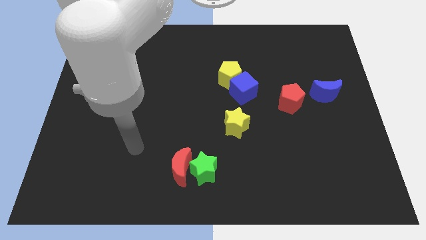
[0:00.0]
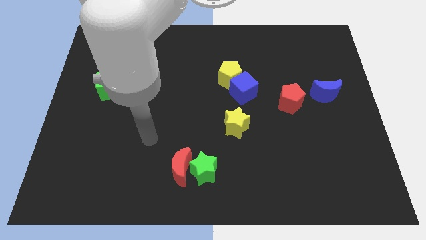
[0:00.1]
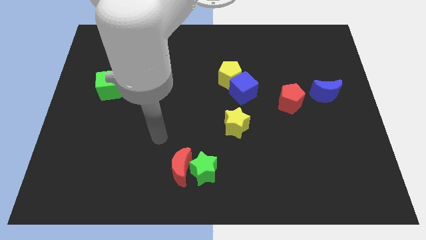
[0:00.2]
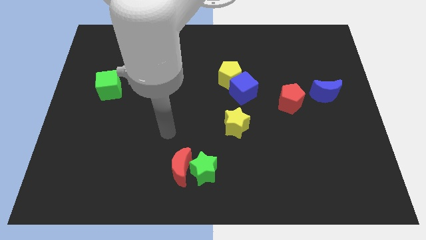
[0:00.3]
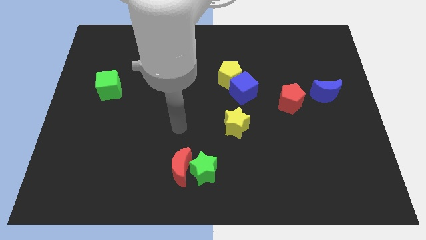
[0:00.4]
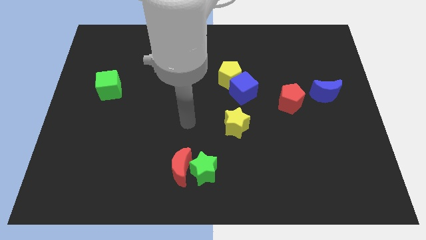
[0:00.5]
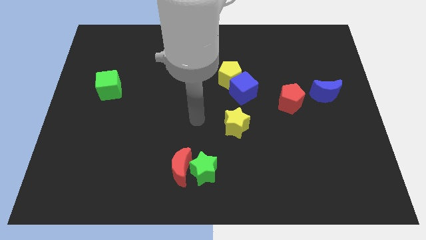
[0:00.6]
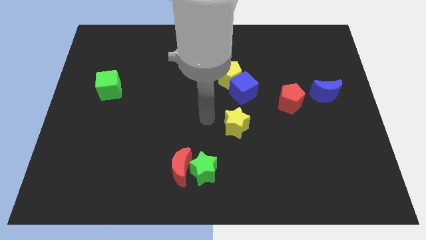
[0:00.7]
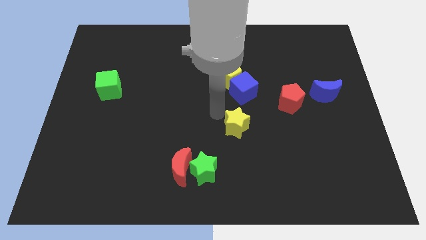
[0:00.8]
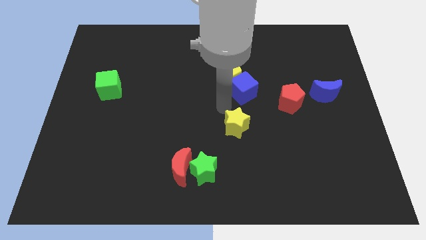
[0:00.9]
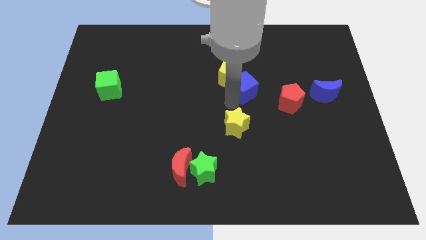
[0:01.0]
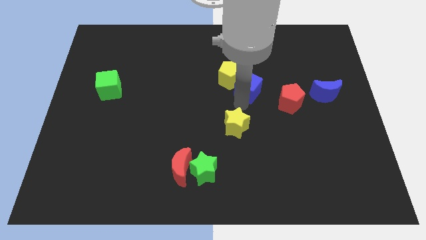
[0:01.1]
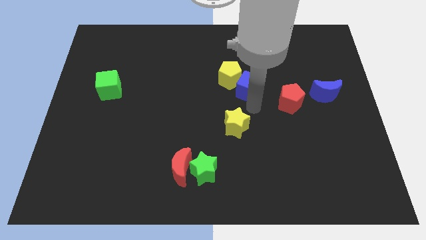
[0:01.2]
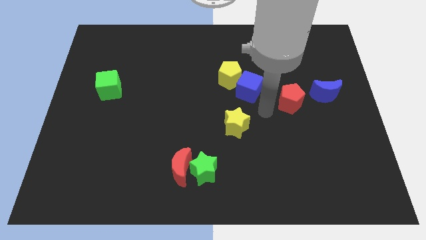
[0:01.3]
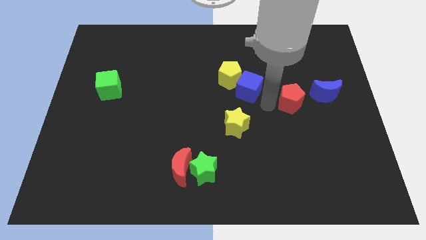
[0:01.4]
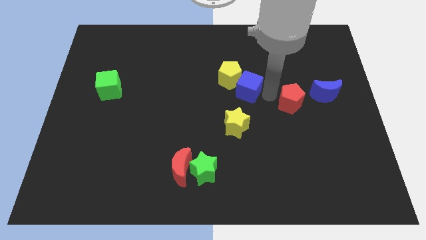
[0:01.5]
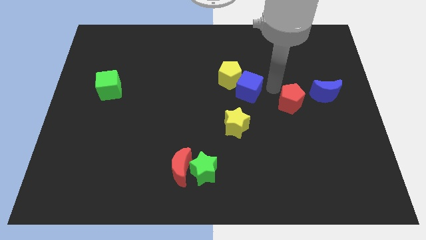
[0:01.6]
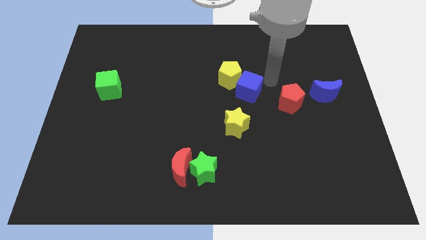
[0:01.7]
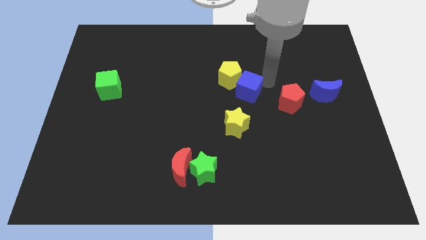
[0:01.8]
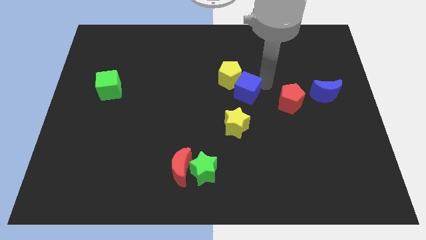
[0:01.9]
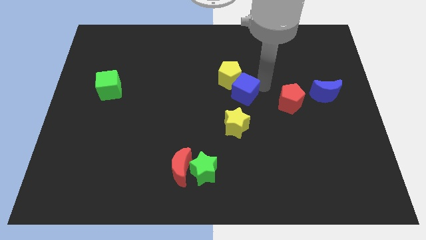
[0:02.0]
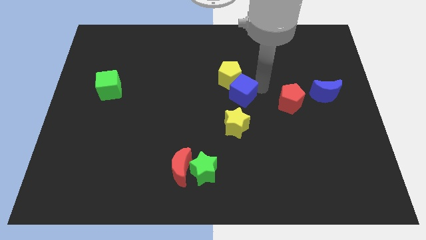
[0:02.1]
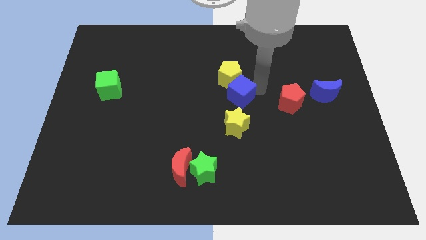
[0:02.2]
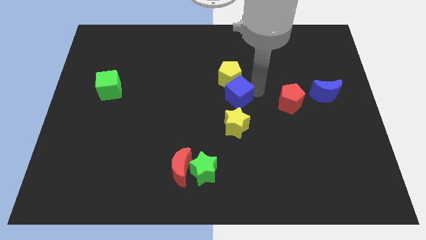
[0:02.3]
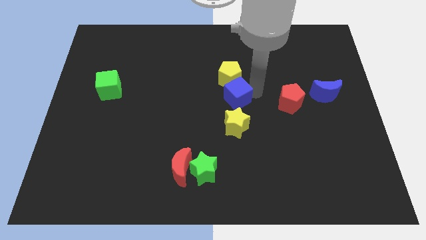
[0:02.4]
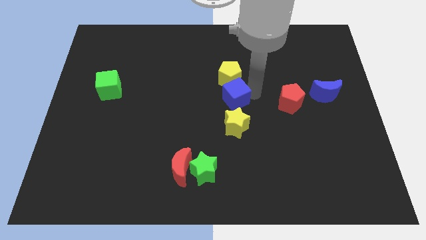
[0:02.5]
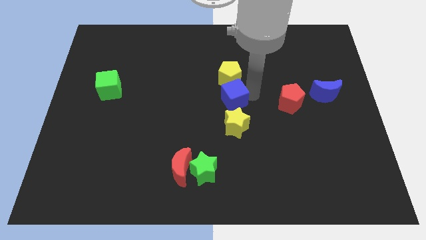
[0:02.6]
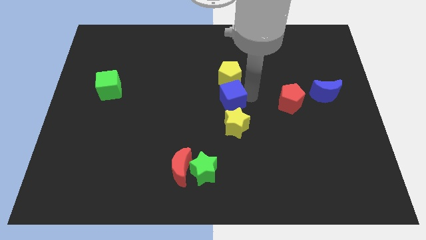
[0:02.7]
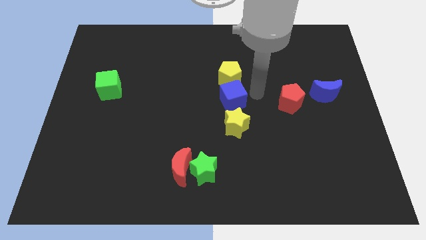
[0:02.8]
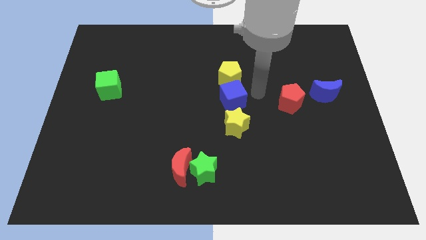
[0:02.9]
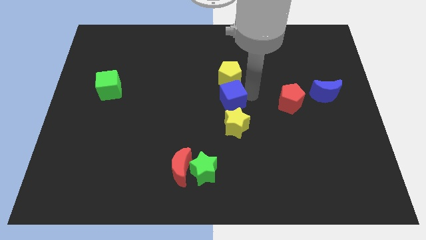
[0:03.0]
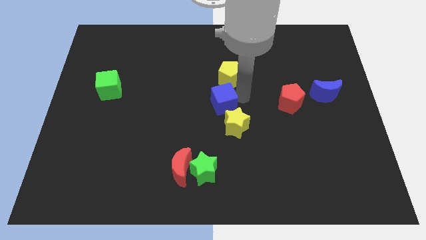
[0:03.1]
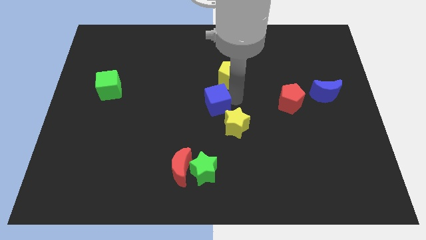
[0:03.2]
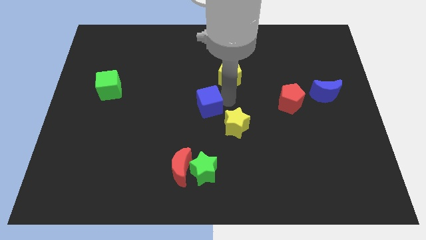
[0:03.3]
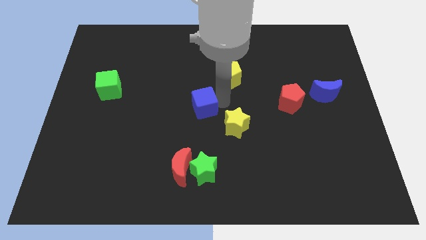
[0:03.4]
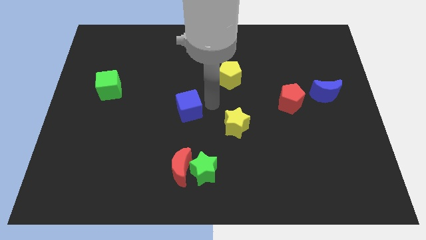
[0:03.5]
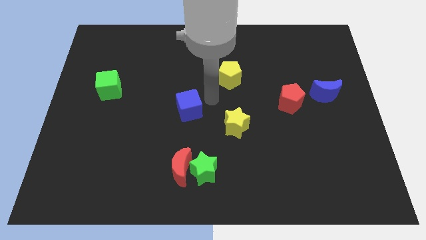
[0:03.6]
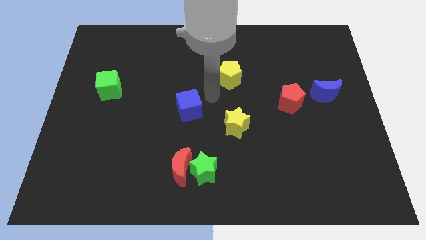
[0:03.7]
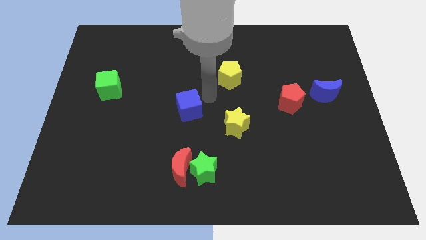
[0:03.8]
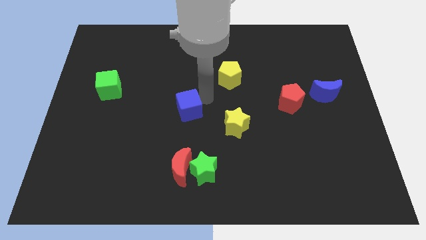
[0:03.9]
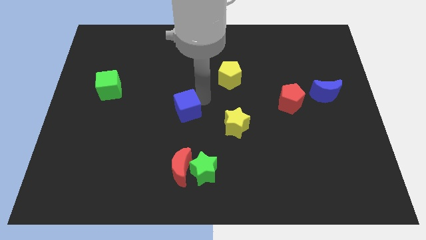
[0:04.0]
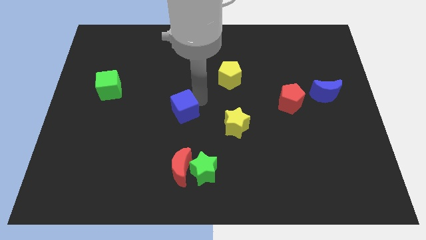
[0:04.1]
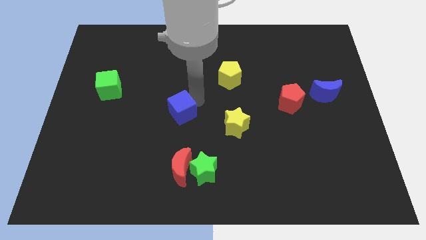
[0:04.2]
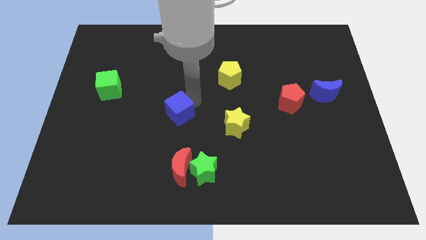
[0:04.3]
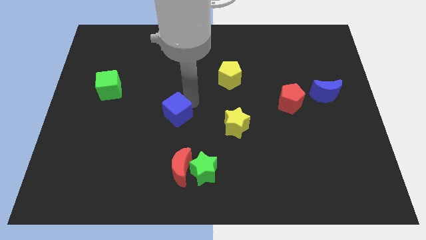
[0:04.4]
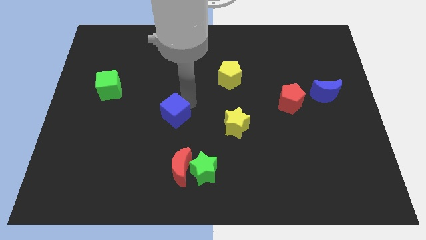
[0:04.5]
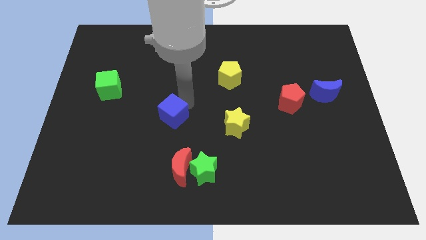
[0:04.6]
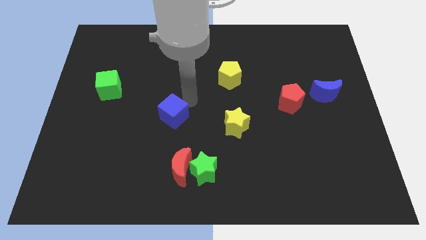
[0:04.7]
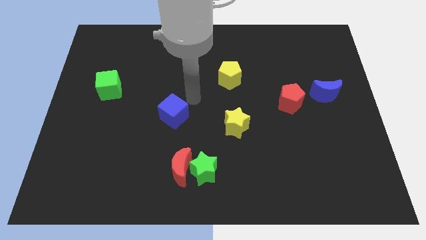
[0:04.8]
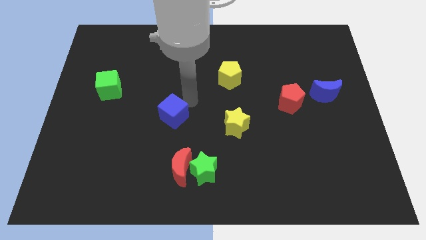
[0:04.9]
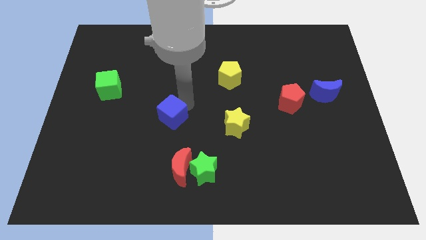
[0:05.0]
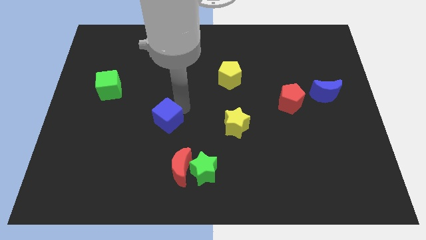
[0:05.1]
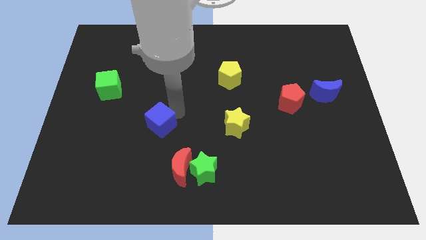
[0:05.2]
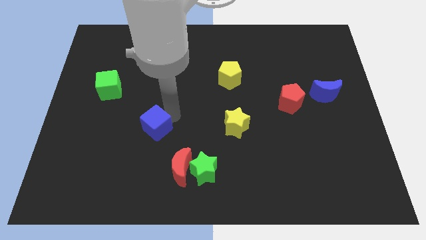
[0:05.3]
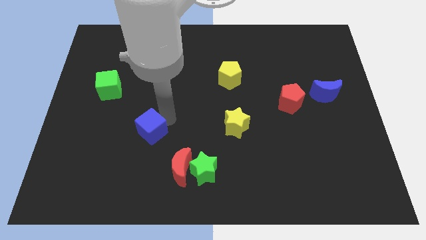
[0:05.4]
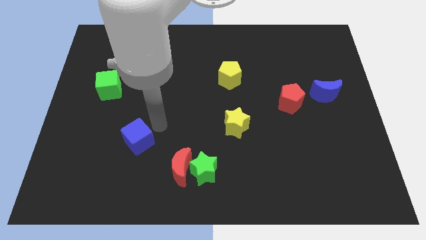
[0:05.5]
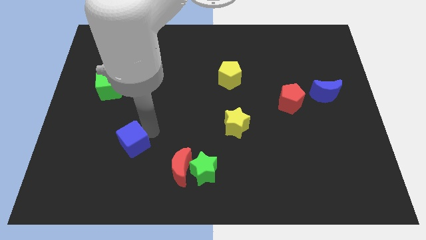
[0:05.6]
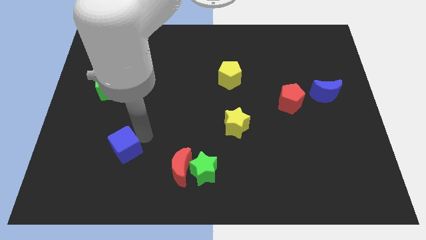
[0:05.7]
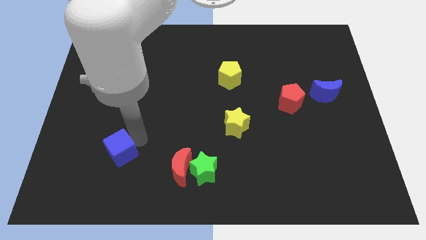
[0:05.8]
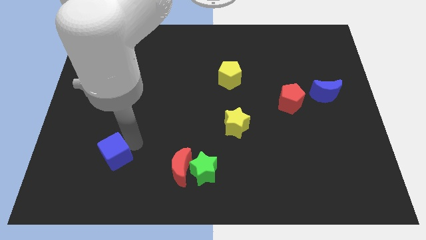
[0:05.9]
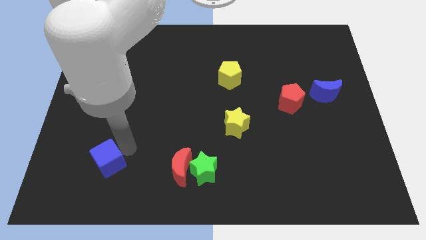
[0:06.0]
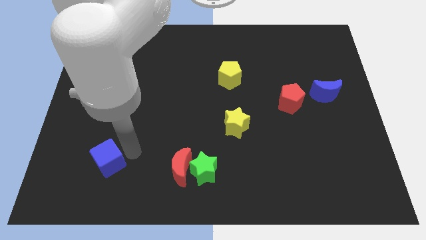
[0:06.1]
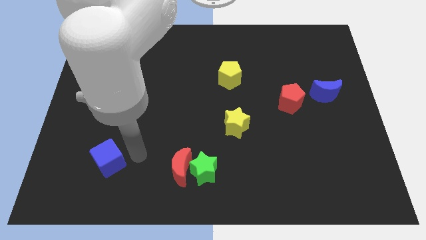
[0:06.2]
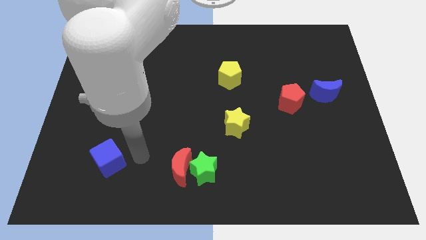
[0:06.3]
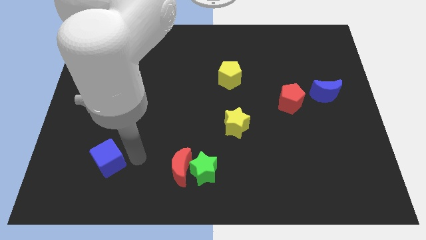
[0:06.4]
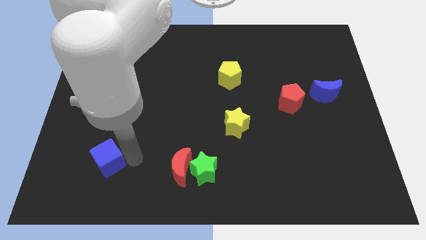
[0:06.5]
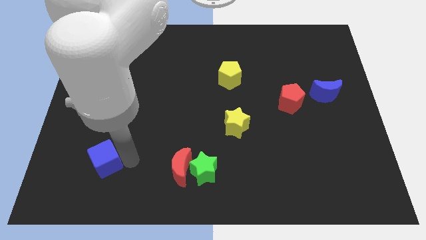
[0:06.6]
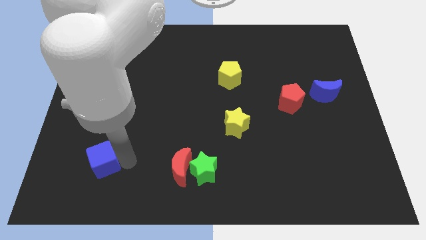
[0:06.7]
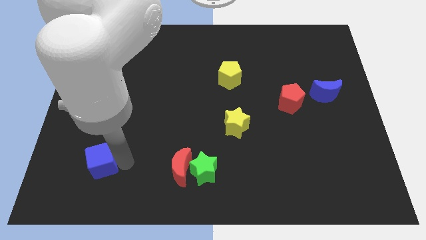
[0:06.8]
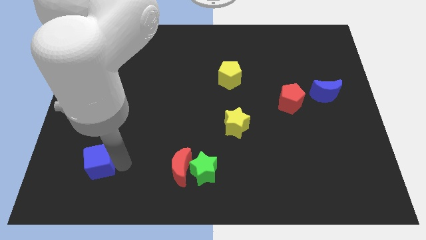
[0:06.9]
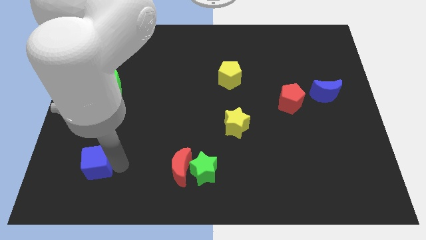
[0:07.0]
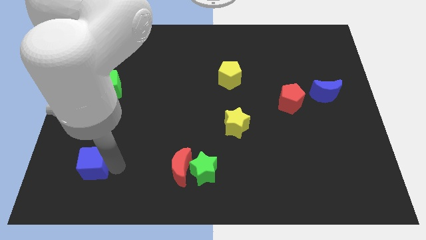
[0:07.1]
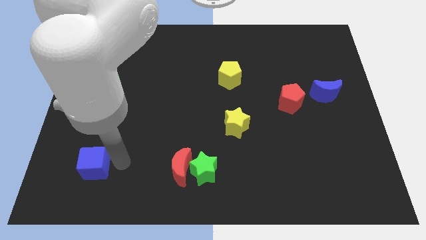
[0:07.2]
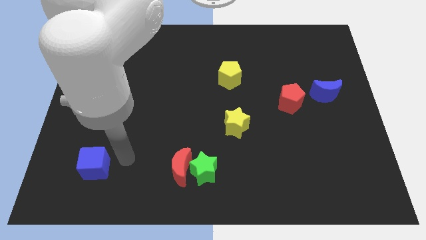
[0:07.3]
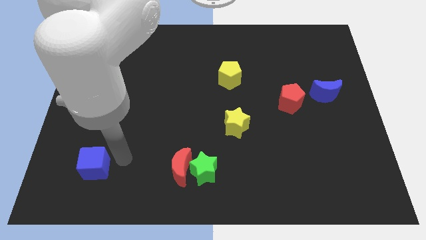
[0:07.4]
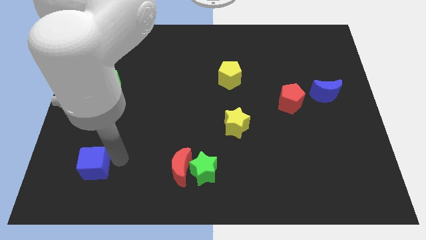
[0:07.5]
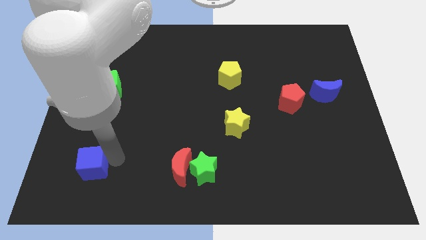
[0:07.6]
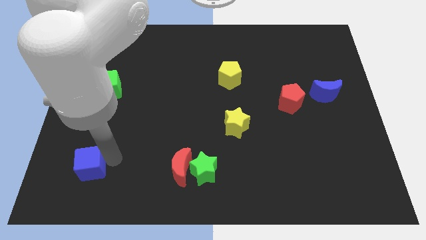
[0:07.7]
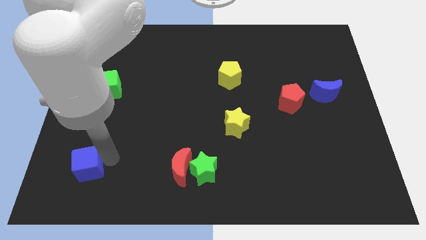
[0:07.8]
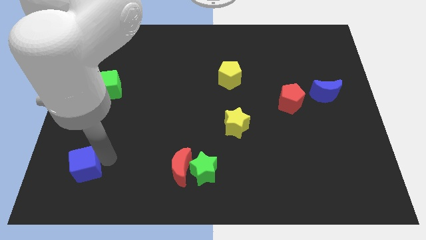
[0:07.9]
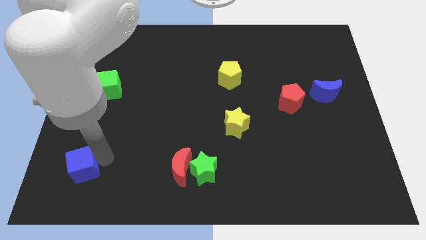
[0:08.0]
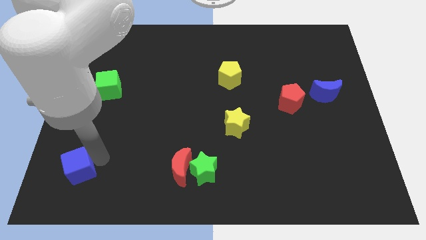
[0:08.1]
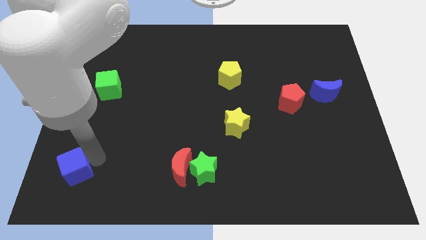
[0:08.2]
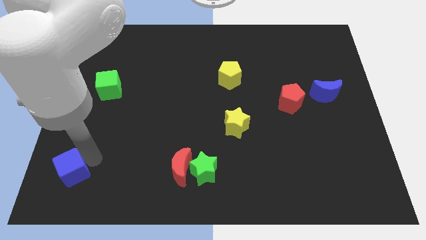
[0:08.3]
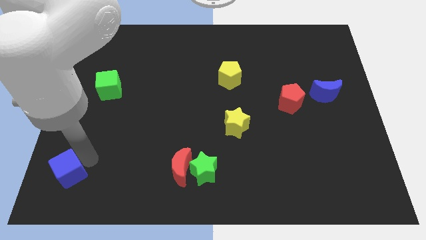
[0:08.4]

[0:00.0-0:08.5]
move the blue cube to the bottom left corner
